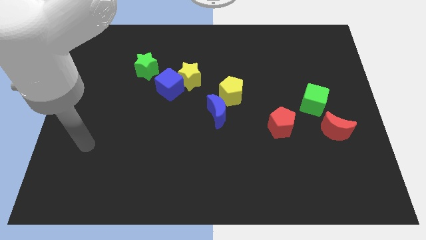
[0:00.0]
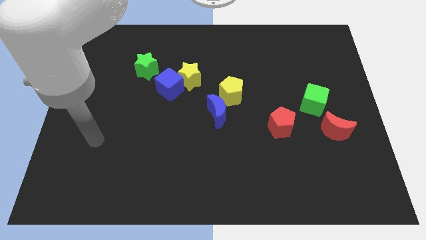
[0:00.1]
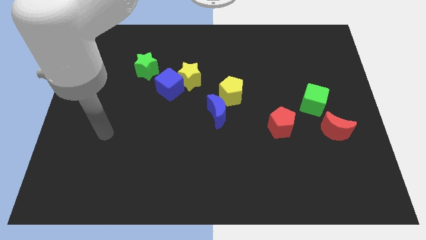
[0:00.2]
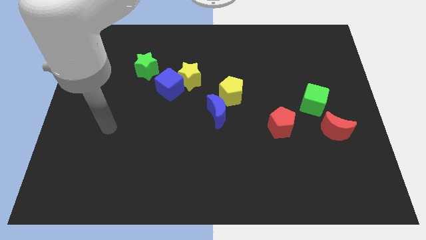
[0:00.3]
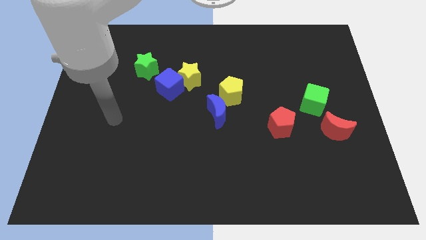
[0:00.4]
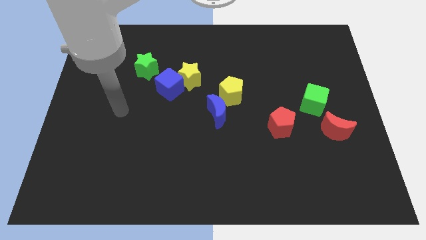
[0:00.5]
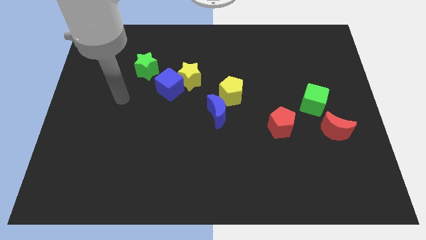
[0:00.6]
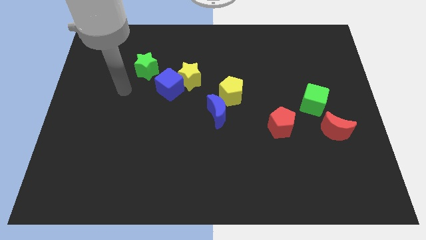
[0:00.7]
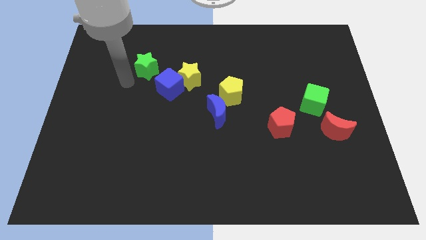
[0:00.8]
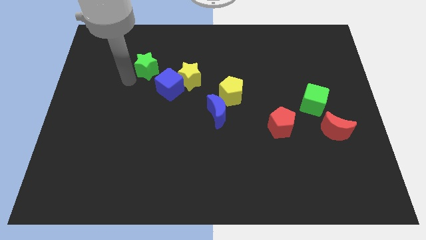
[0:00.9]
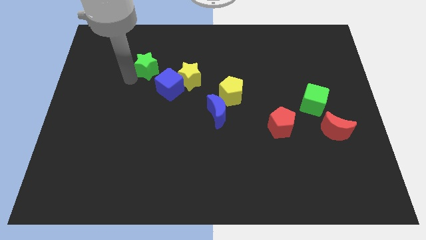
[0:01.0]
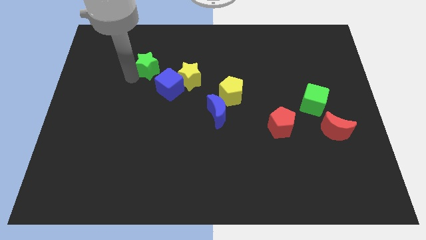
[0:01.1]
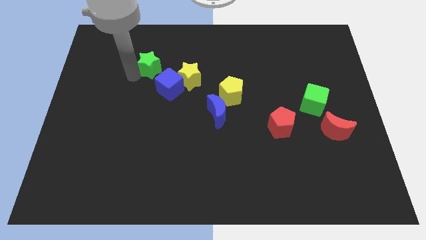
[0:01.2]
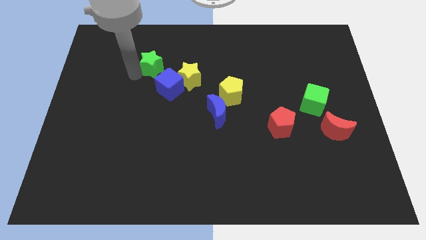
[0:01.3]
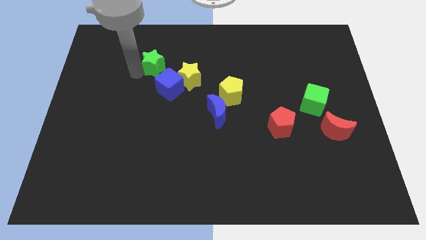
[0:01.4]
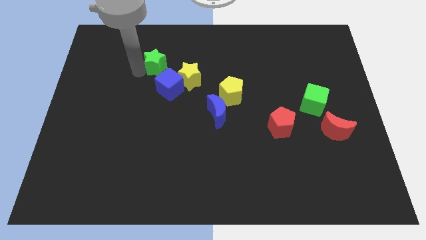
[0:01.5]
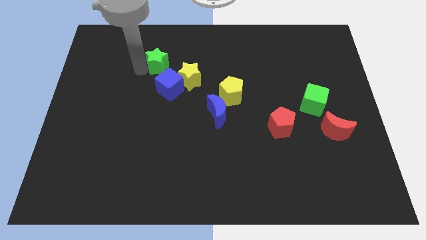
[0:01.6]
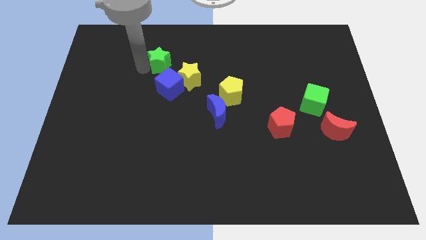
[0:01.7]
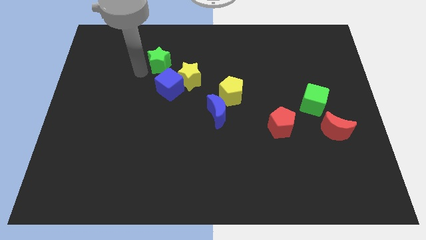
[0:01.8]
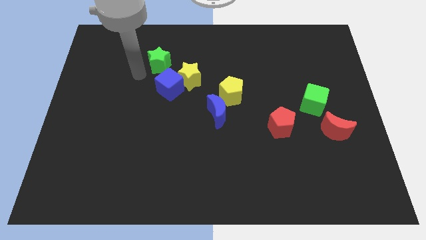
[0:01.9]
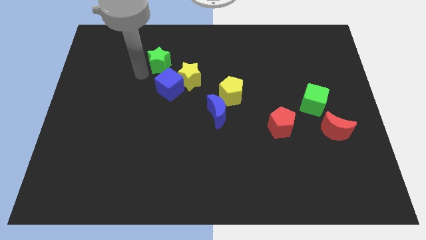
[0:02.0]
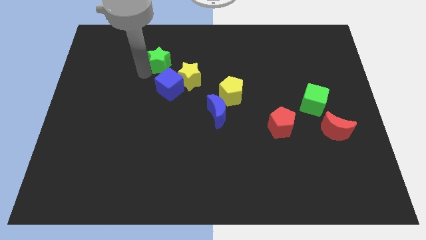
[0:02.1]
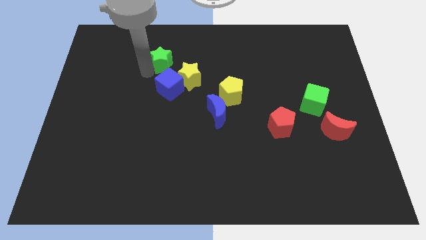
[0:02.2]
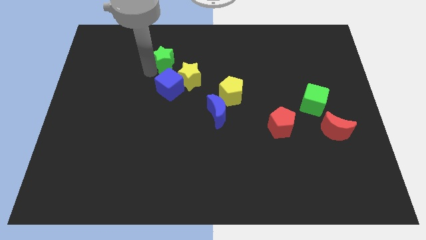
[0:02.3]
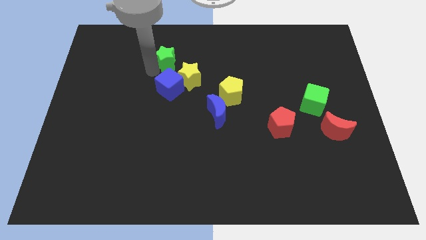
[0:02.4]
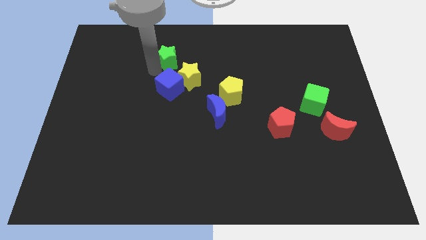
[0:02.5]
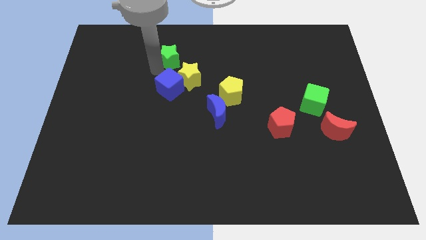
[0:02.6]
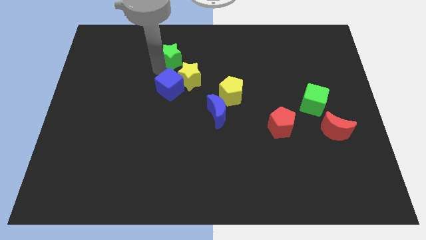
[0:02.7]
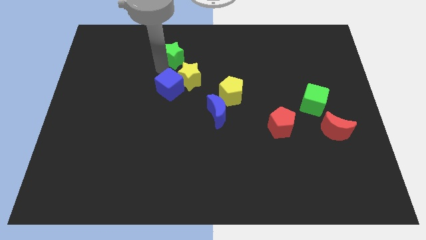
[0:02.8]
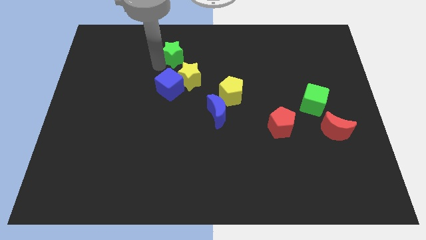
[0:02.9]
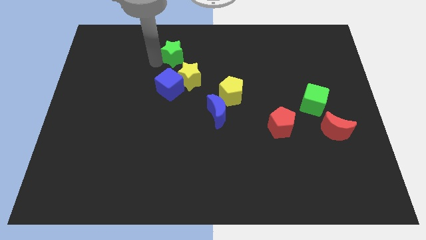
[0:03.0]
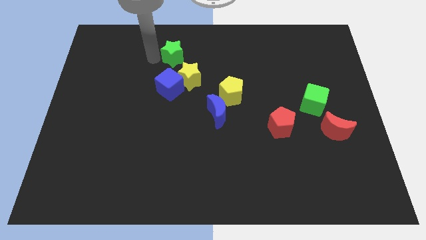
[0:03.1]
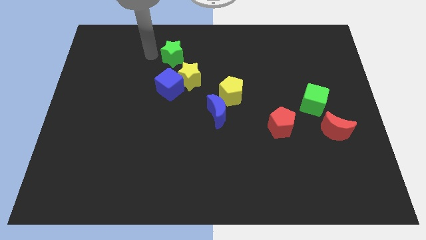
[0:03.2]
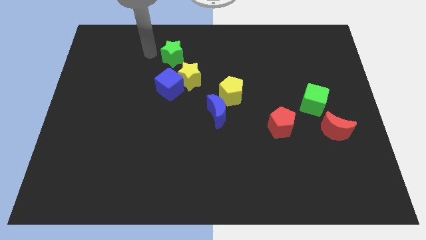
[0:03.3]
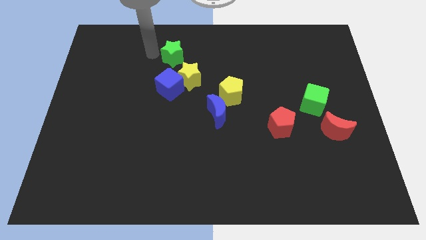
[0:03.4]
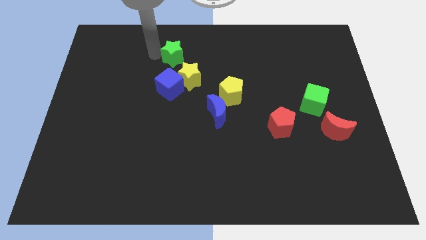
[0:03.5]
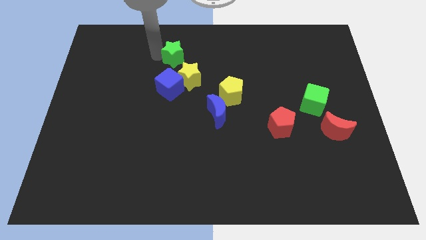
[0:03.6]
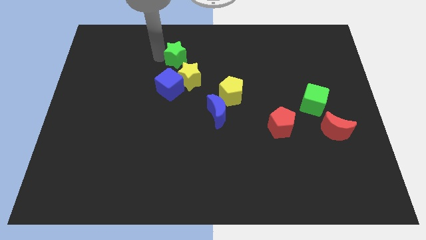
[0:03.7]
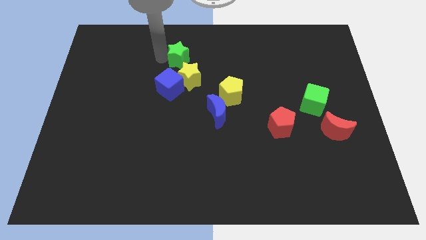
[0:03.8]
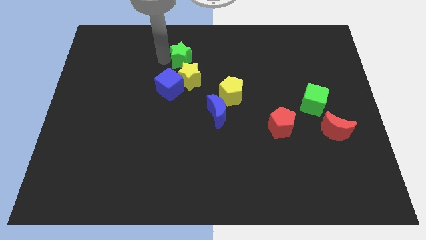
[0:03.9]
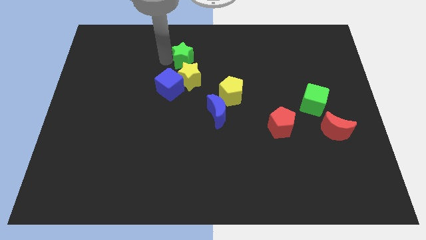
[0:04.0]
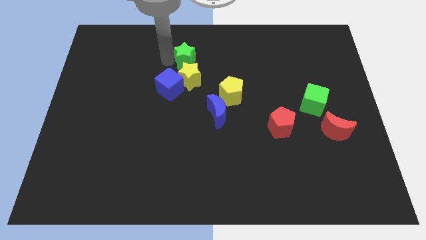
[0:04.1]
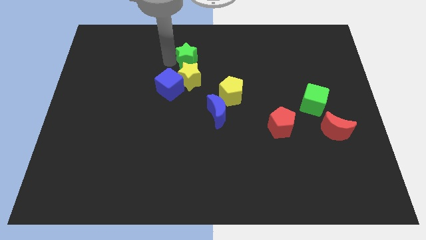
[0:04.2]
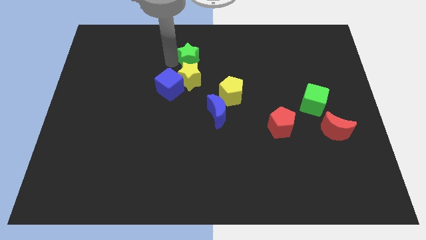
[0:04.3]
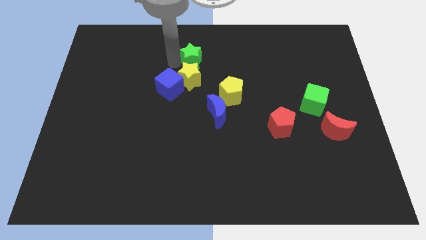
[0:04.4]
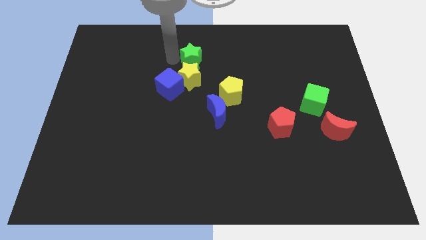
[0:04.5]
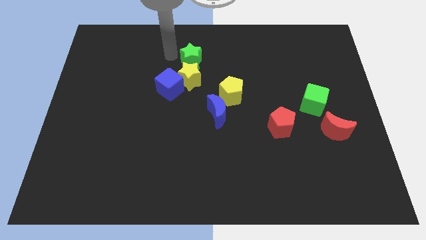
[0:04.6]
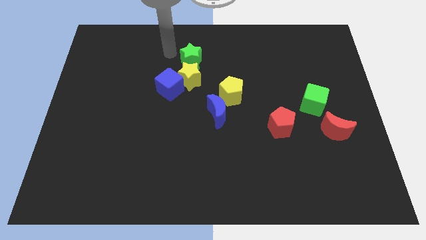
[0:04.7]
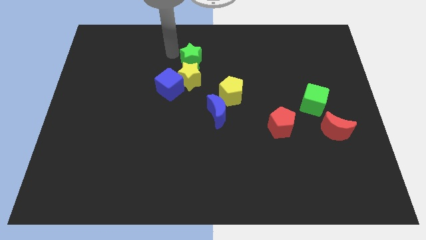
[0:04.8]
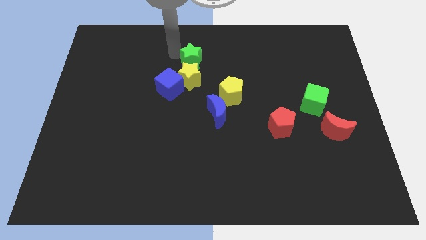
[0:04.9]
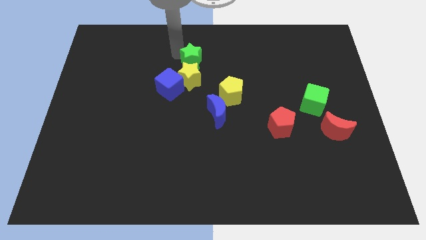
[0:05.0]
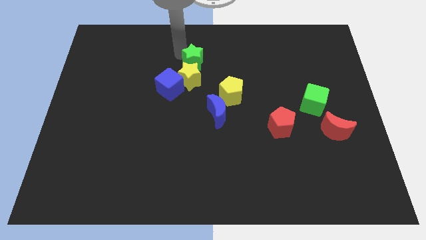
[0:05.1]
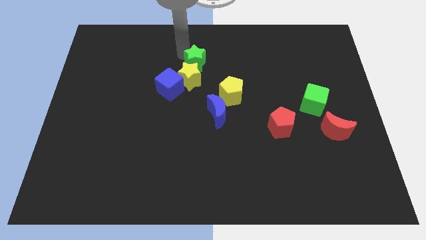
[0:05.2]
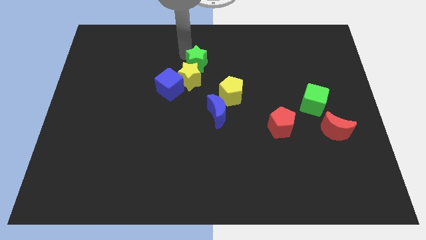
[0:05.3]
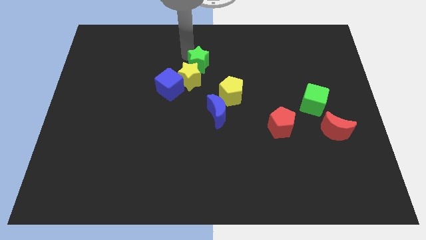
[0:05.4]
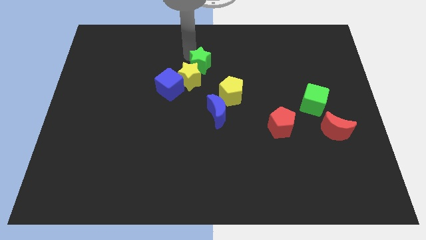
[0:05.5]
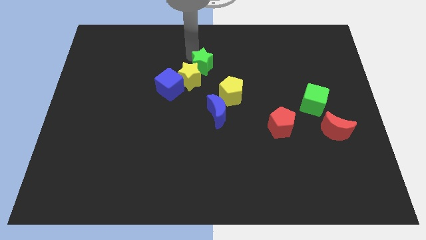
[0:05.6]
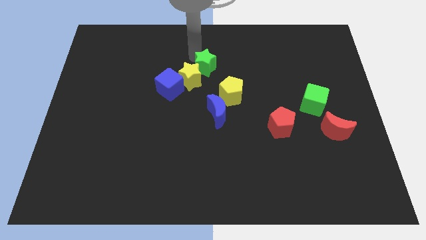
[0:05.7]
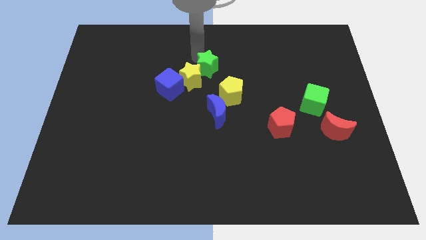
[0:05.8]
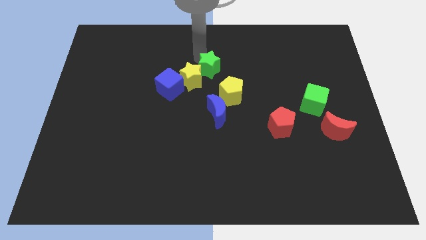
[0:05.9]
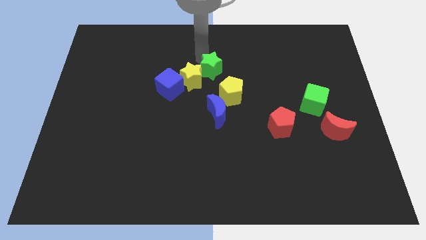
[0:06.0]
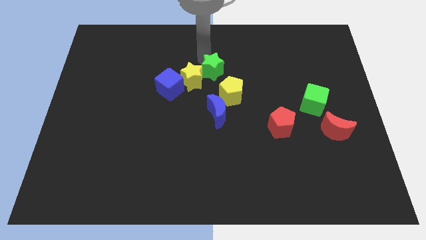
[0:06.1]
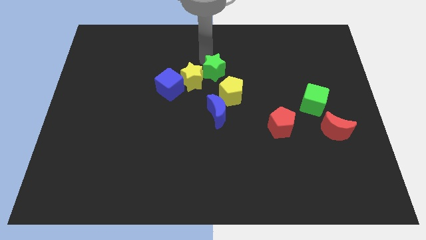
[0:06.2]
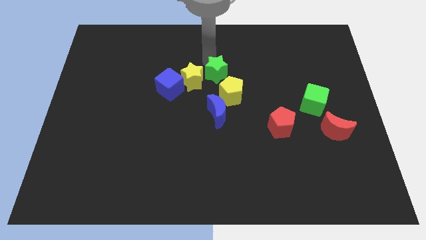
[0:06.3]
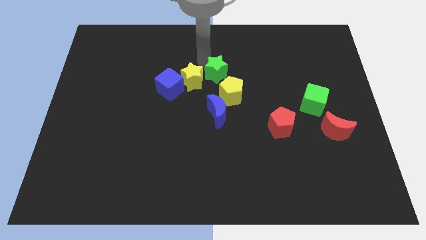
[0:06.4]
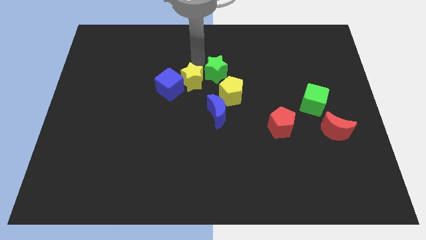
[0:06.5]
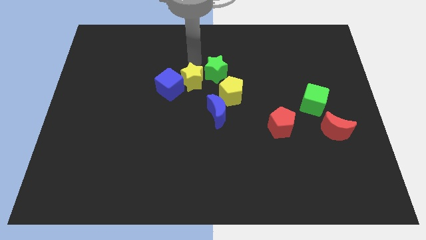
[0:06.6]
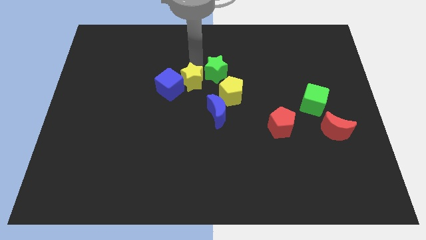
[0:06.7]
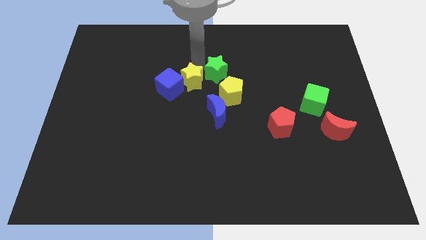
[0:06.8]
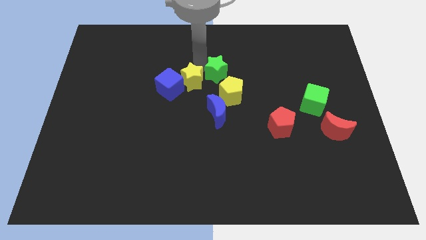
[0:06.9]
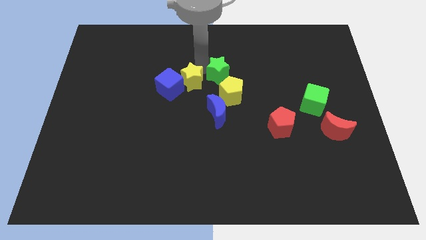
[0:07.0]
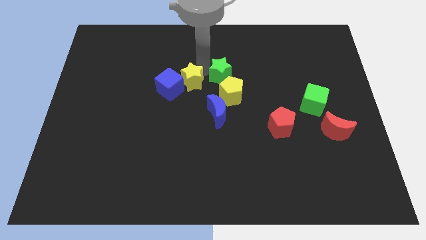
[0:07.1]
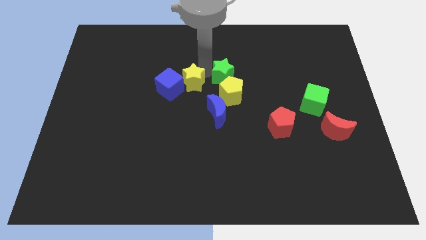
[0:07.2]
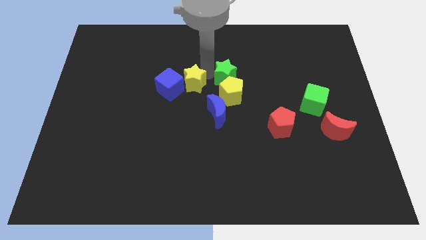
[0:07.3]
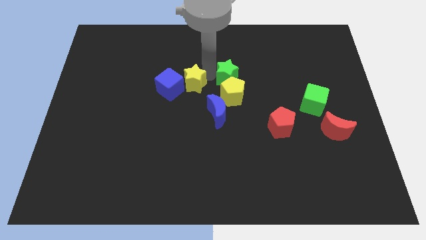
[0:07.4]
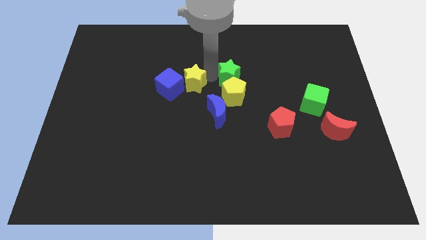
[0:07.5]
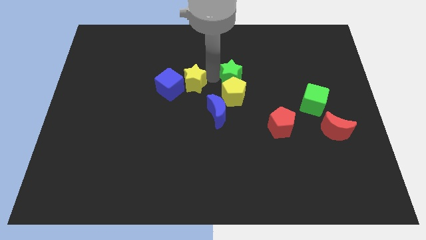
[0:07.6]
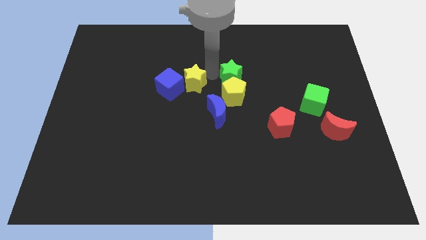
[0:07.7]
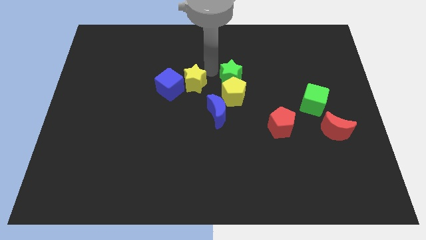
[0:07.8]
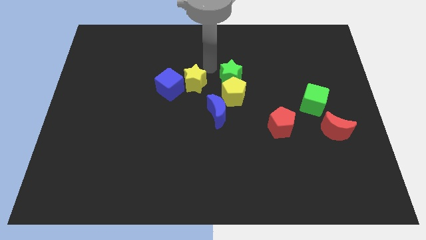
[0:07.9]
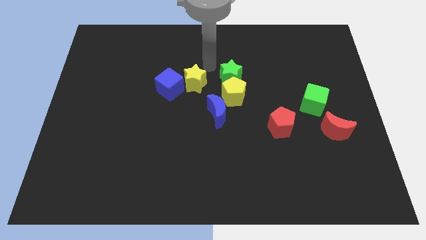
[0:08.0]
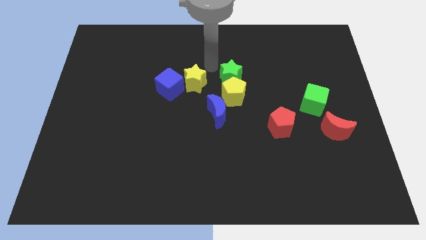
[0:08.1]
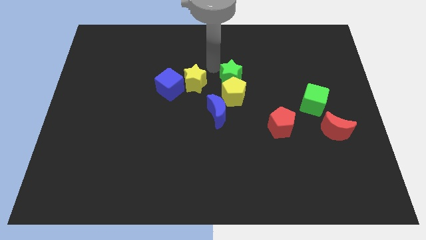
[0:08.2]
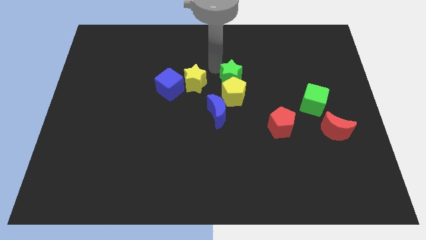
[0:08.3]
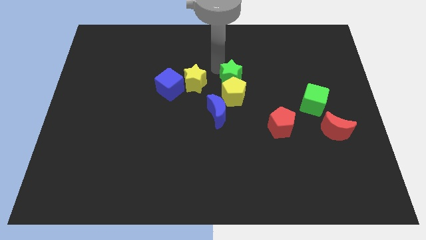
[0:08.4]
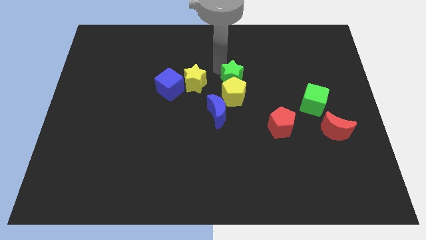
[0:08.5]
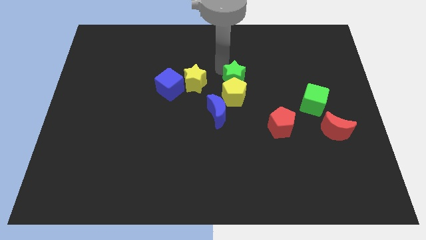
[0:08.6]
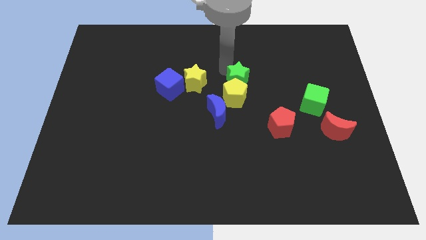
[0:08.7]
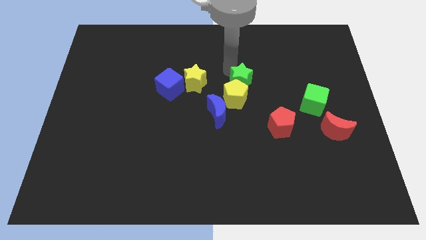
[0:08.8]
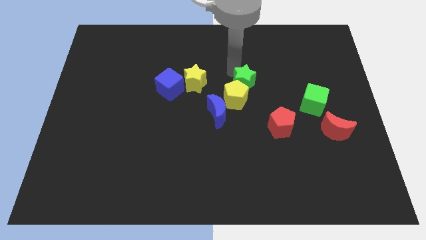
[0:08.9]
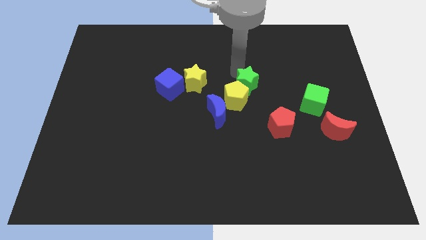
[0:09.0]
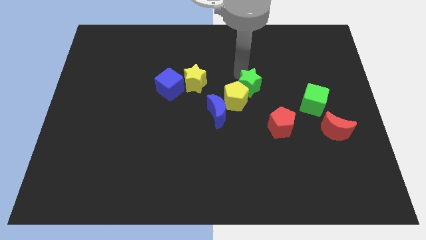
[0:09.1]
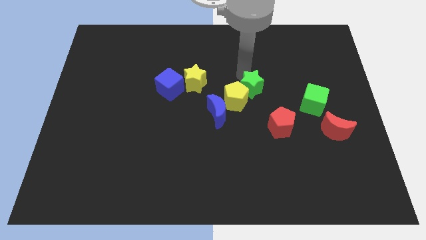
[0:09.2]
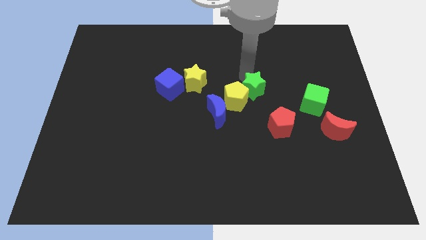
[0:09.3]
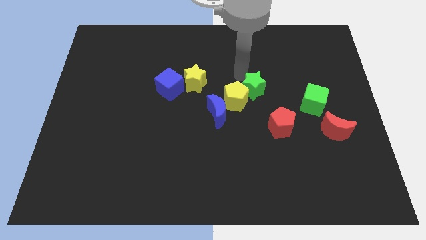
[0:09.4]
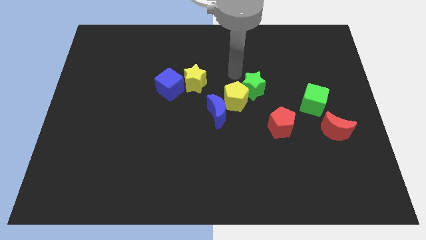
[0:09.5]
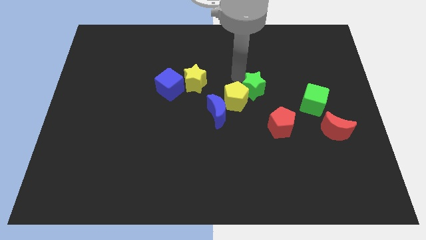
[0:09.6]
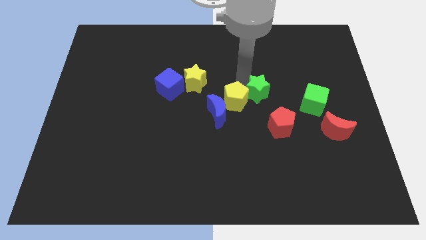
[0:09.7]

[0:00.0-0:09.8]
put the green star left of the green cube
